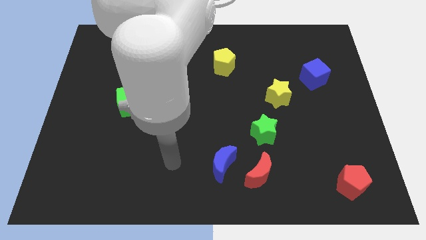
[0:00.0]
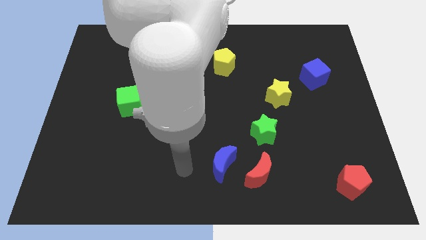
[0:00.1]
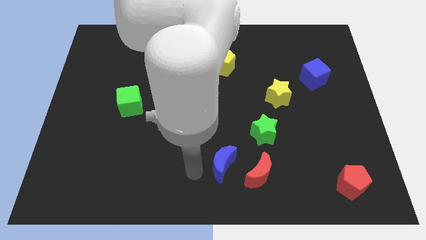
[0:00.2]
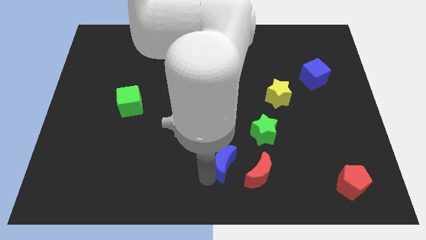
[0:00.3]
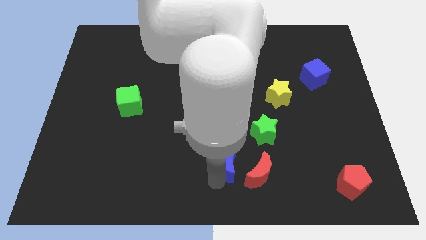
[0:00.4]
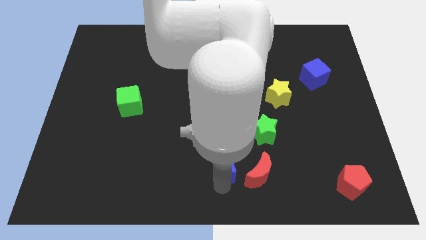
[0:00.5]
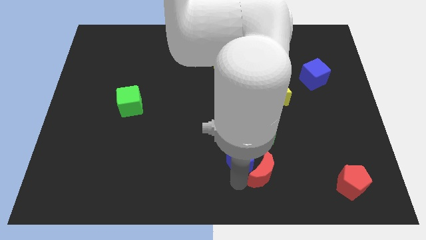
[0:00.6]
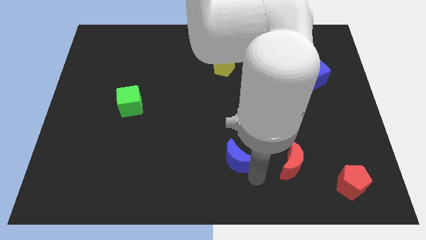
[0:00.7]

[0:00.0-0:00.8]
pull the blue moon apart from the red moon

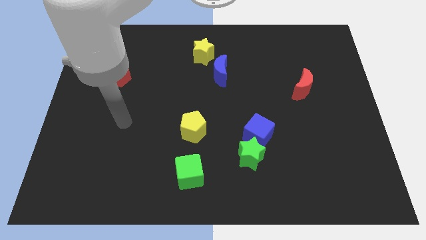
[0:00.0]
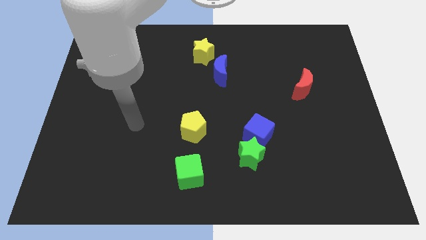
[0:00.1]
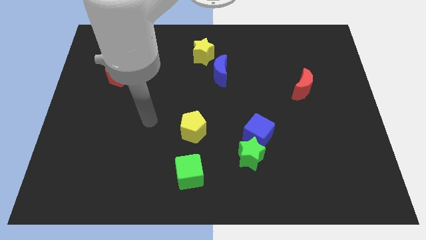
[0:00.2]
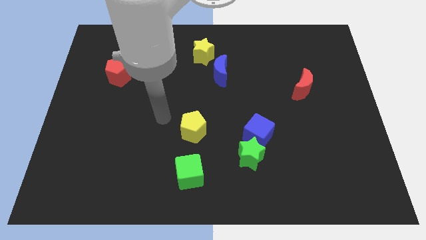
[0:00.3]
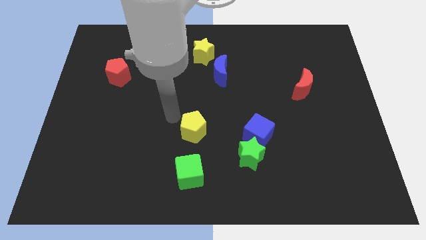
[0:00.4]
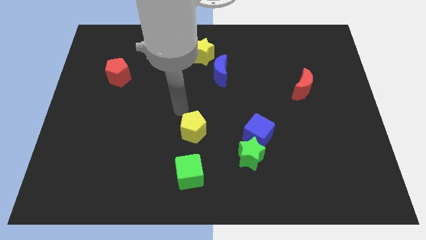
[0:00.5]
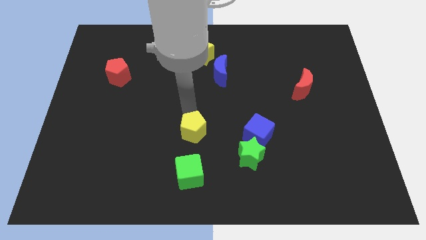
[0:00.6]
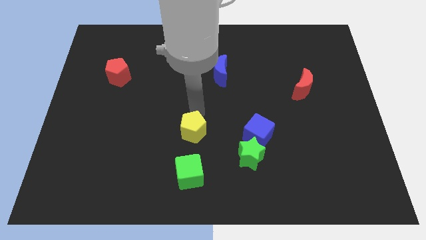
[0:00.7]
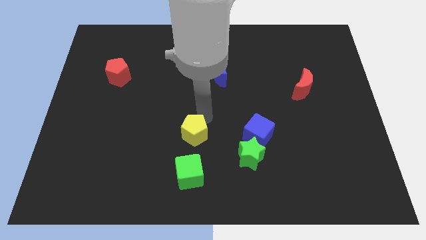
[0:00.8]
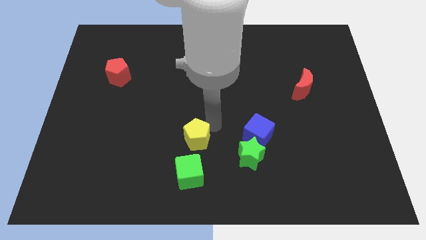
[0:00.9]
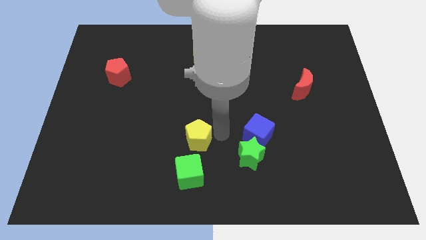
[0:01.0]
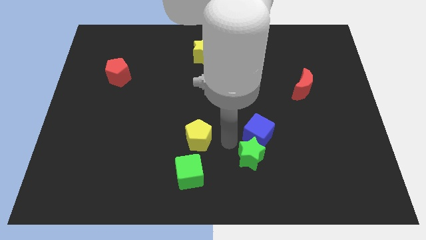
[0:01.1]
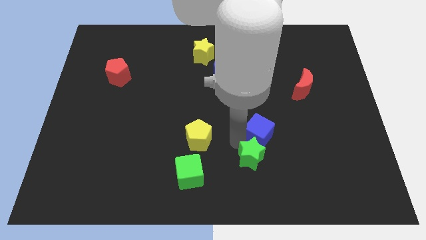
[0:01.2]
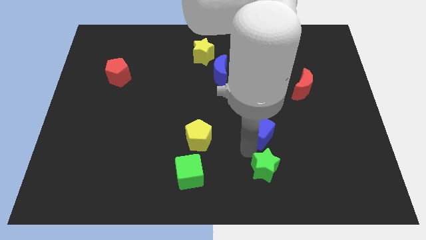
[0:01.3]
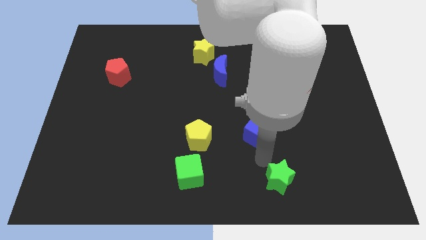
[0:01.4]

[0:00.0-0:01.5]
move the blue cube away from the green star

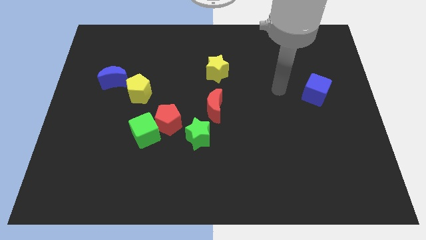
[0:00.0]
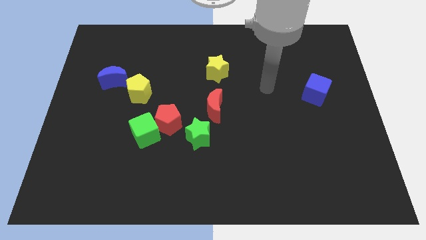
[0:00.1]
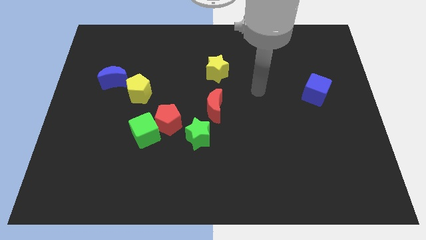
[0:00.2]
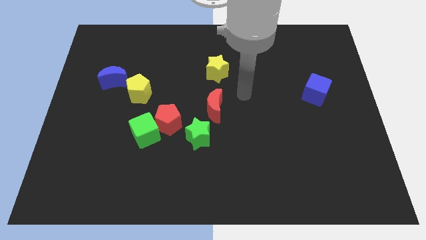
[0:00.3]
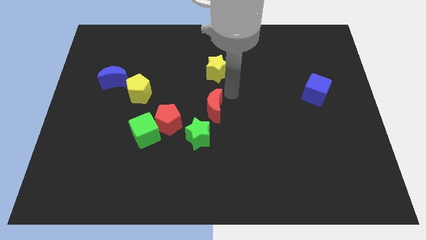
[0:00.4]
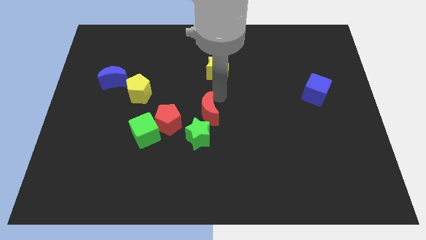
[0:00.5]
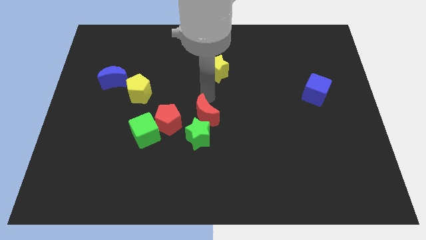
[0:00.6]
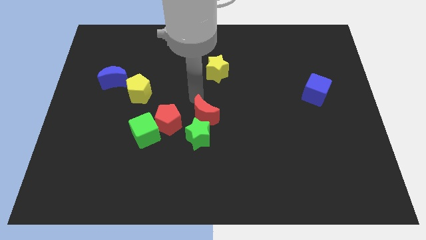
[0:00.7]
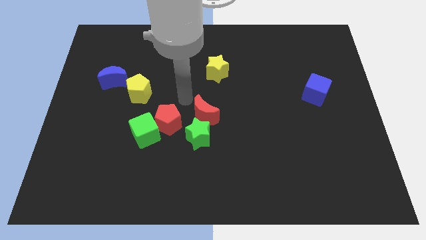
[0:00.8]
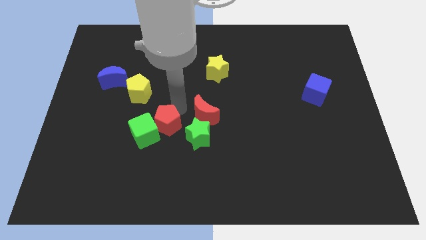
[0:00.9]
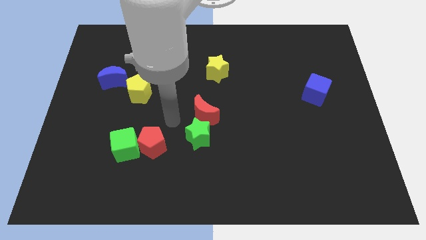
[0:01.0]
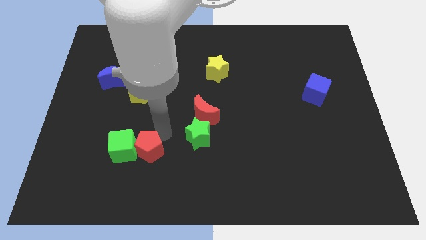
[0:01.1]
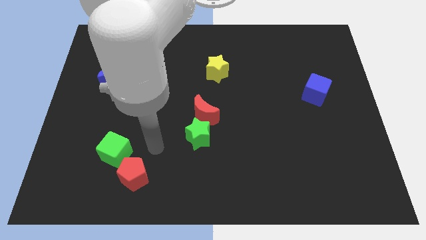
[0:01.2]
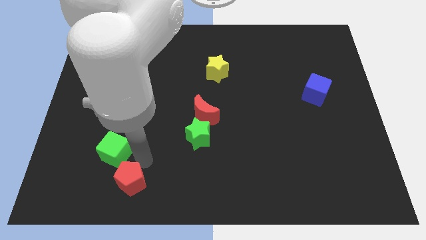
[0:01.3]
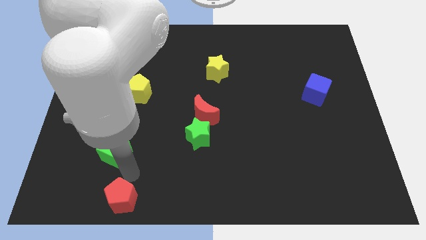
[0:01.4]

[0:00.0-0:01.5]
pull the green cube apart from the red pentagon

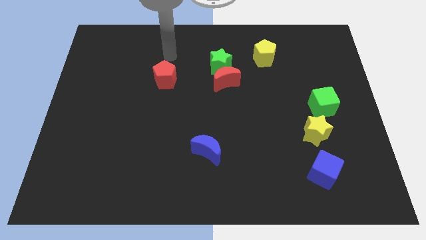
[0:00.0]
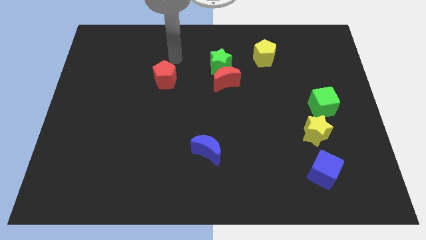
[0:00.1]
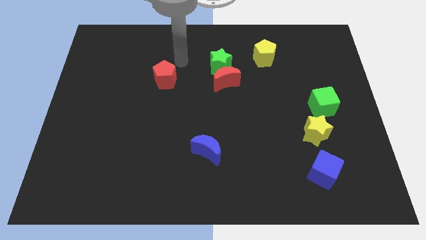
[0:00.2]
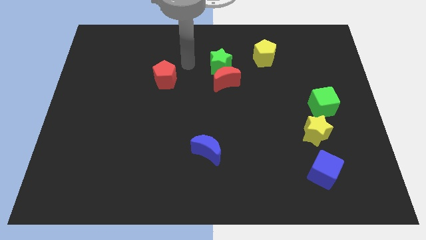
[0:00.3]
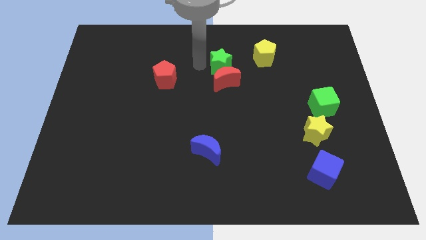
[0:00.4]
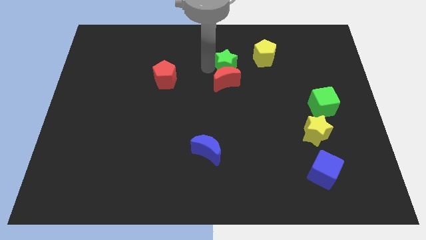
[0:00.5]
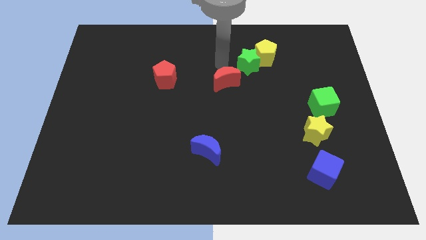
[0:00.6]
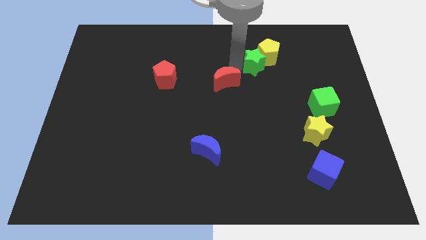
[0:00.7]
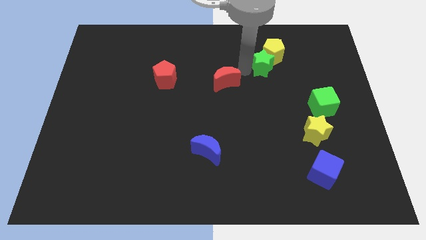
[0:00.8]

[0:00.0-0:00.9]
move the red moon away from the green star

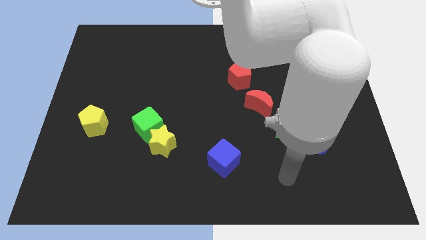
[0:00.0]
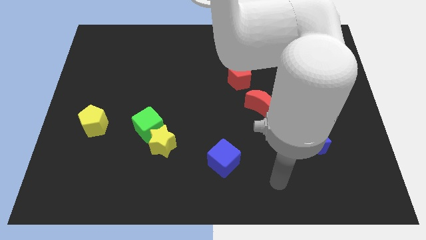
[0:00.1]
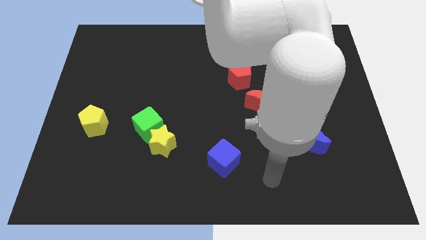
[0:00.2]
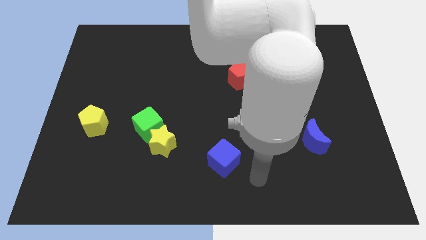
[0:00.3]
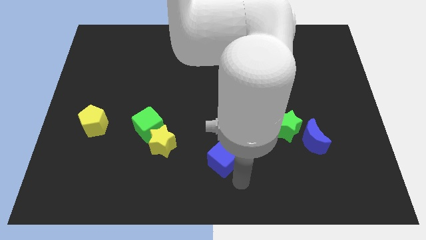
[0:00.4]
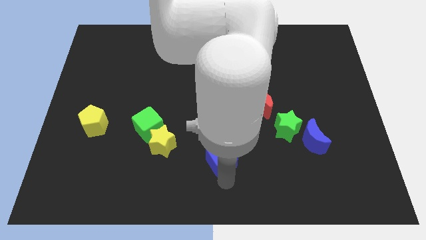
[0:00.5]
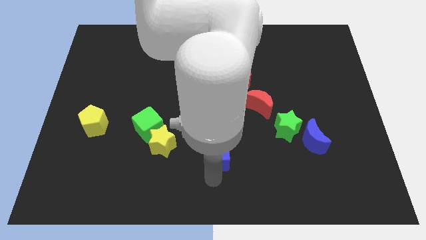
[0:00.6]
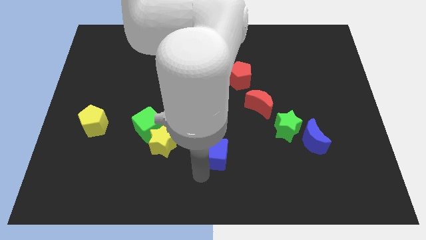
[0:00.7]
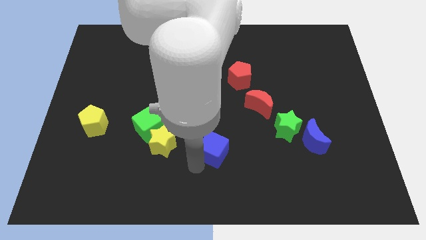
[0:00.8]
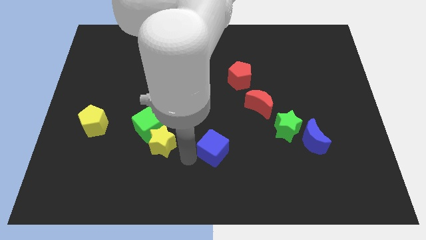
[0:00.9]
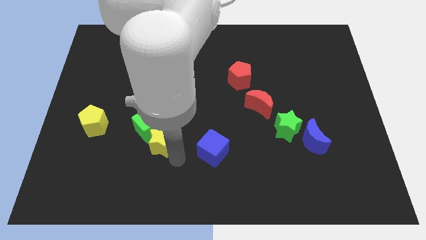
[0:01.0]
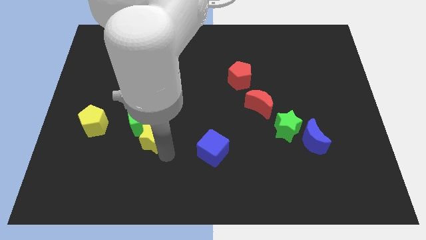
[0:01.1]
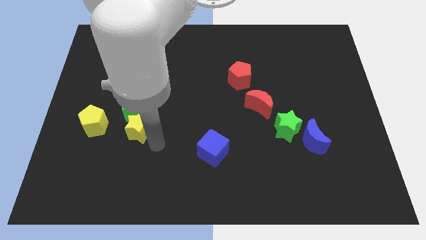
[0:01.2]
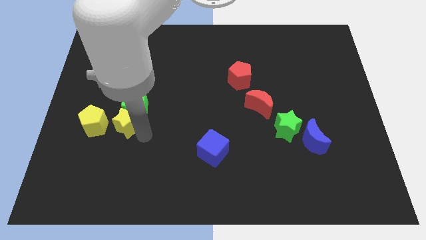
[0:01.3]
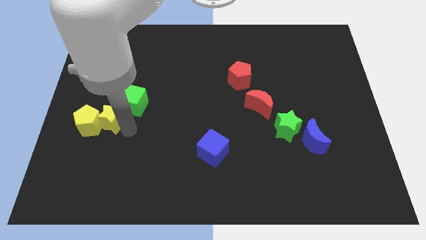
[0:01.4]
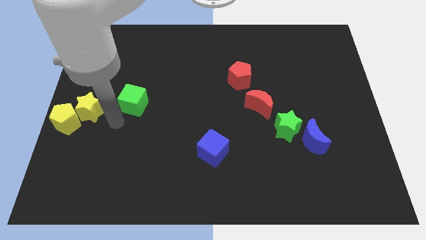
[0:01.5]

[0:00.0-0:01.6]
move the green cube away from the yellow star

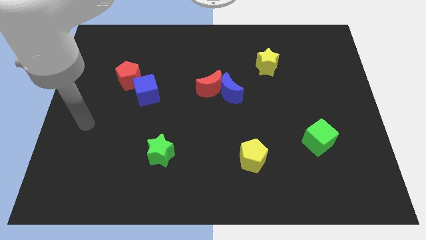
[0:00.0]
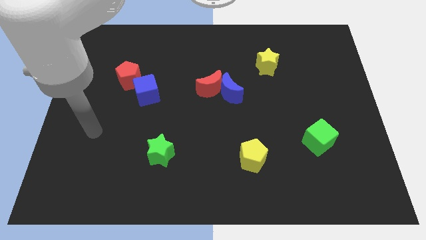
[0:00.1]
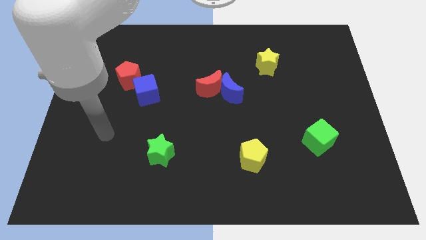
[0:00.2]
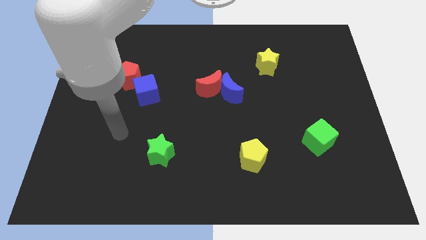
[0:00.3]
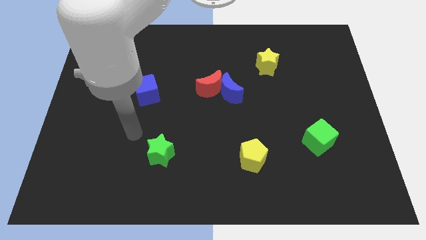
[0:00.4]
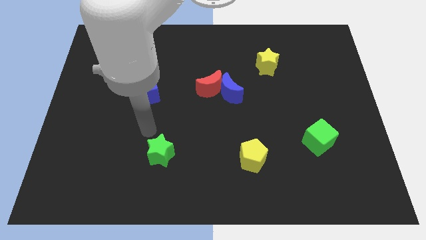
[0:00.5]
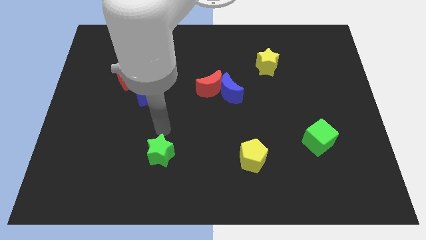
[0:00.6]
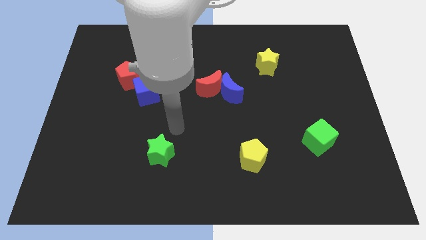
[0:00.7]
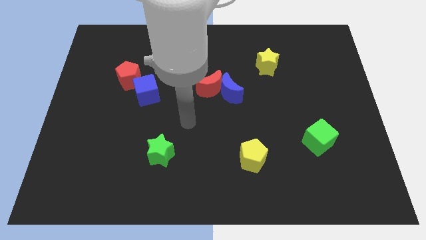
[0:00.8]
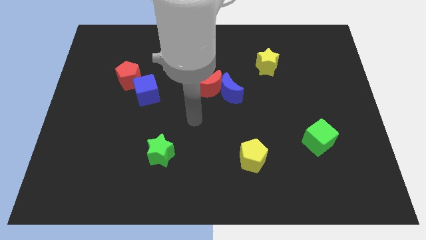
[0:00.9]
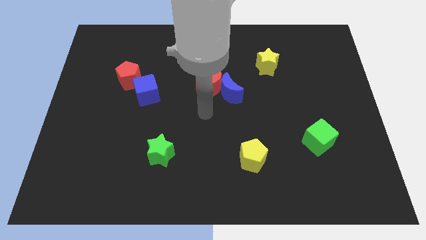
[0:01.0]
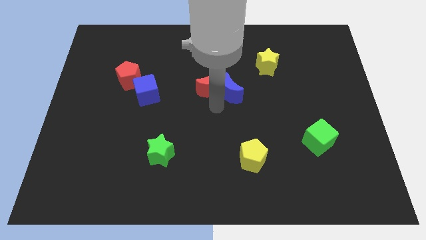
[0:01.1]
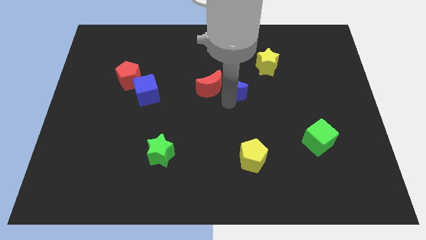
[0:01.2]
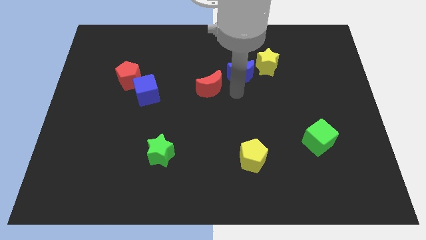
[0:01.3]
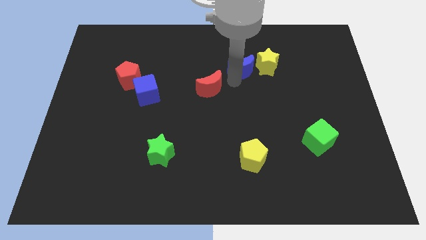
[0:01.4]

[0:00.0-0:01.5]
move the red moon away from the blue moon

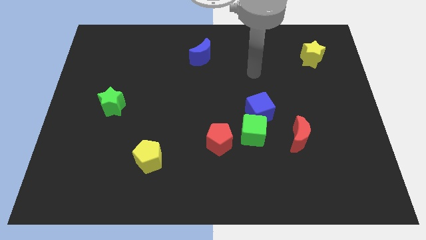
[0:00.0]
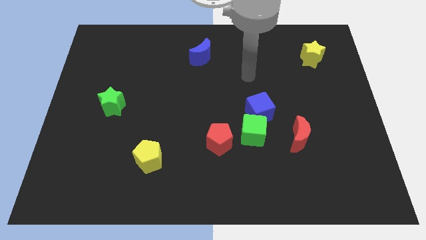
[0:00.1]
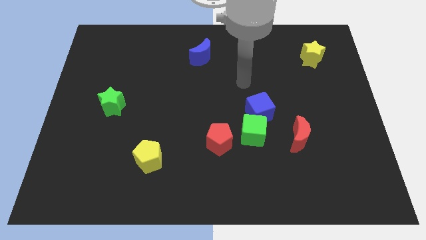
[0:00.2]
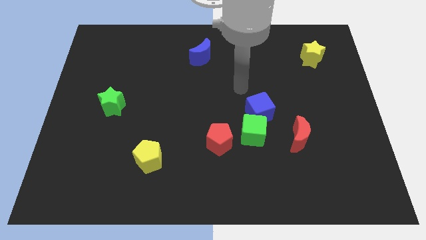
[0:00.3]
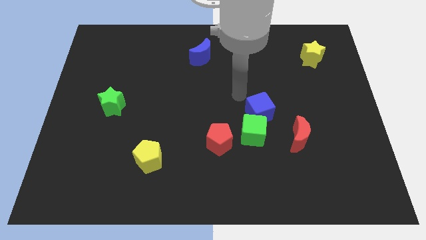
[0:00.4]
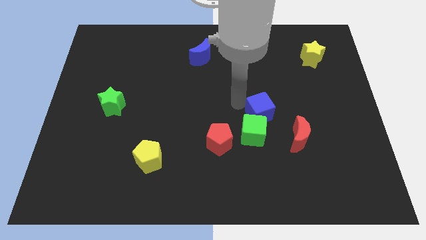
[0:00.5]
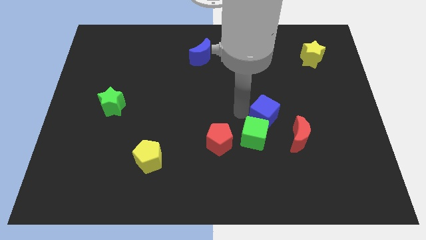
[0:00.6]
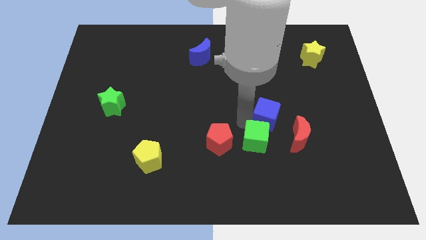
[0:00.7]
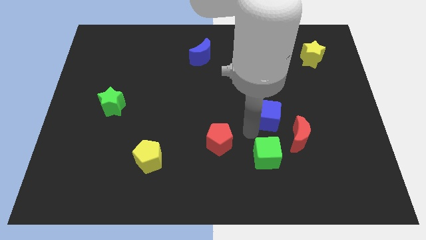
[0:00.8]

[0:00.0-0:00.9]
move the blue cube away from the green cube

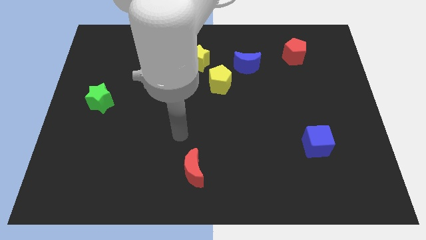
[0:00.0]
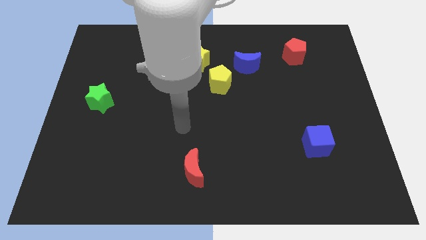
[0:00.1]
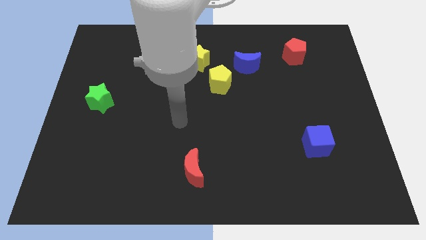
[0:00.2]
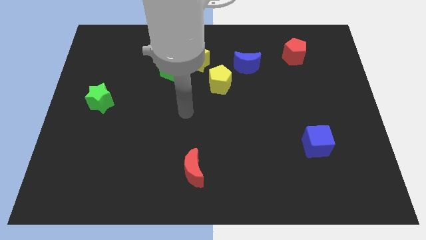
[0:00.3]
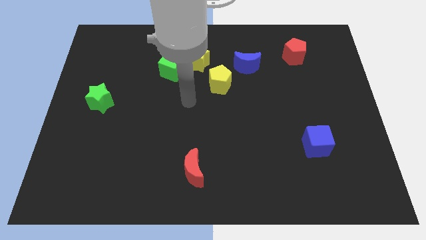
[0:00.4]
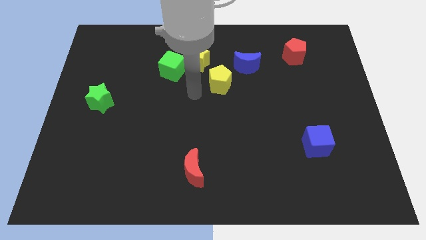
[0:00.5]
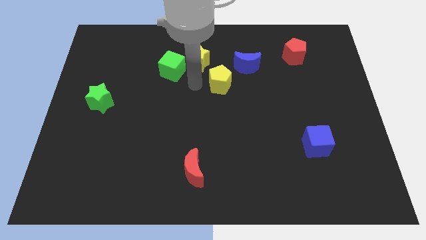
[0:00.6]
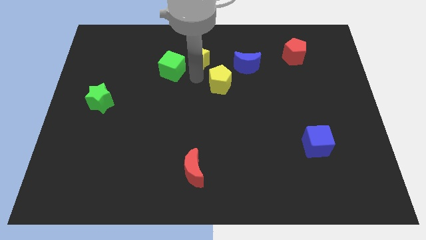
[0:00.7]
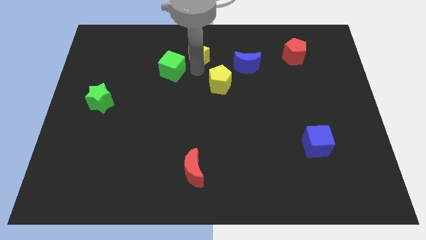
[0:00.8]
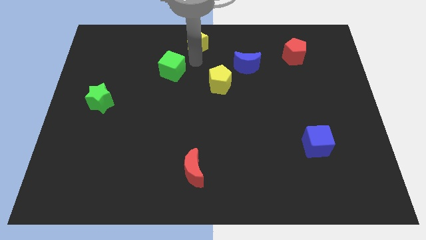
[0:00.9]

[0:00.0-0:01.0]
separate the green cube from the yellow star
